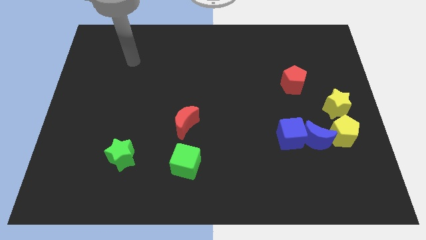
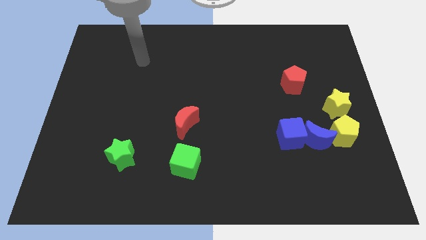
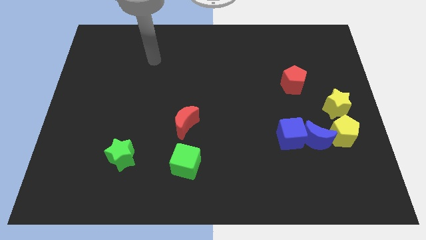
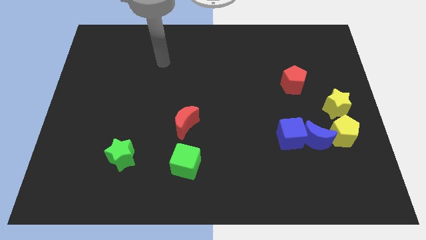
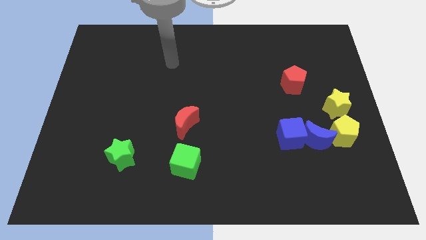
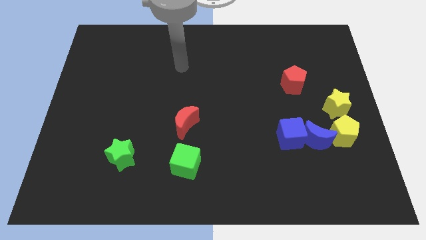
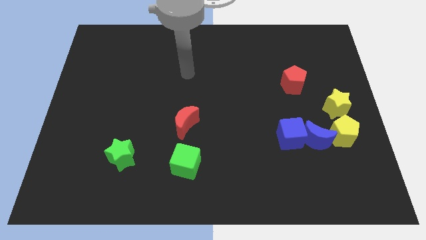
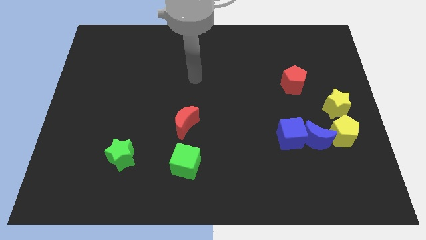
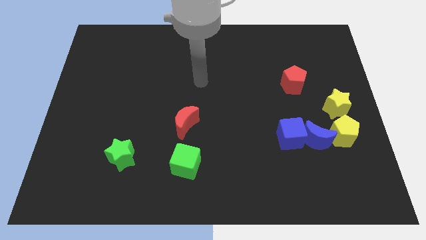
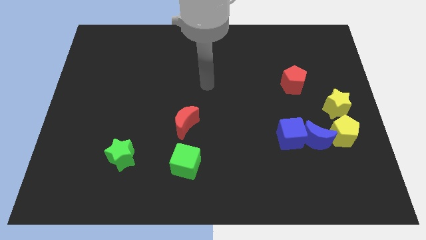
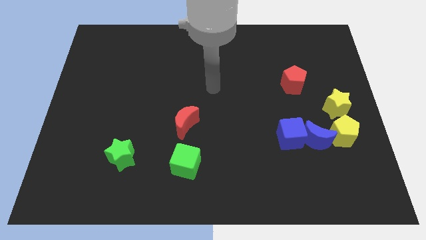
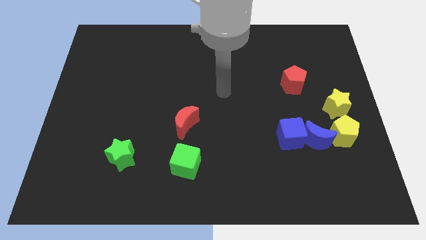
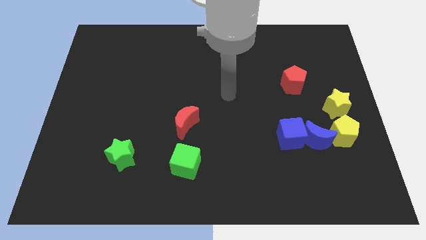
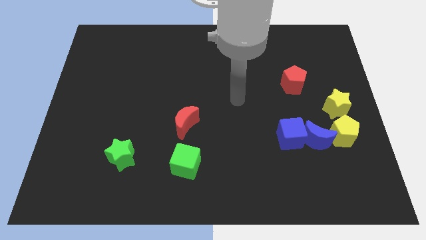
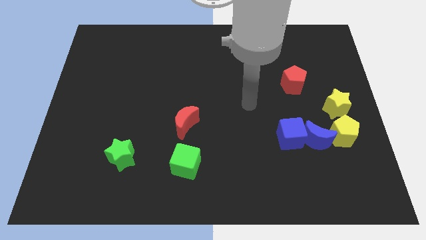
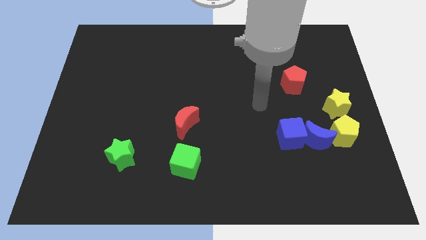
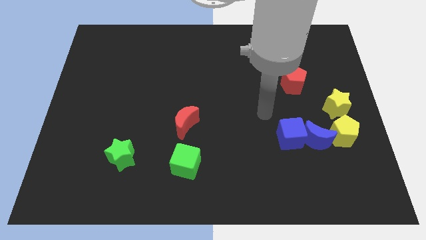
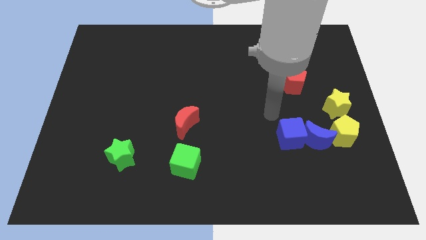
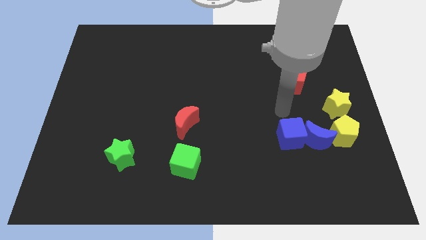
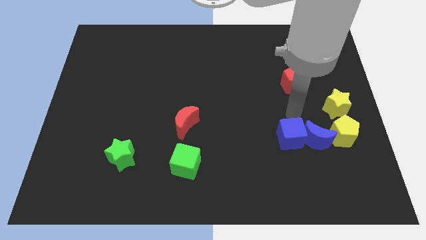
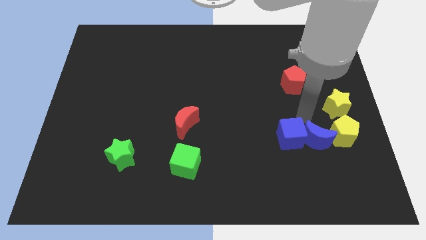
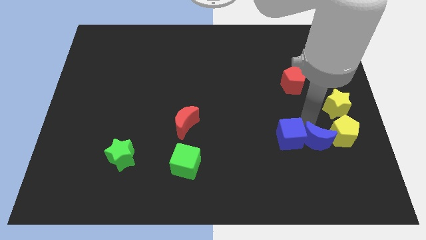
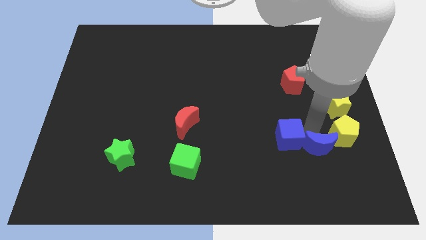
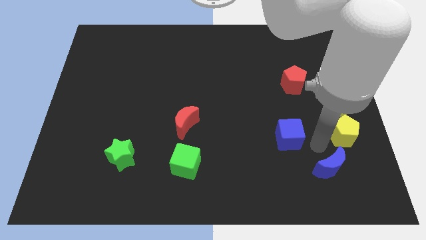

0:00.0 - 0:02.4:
move the blue cube away from the blue moon

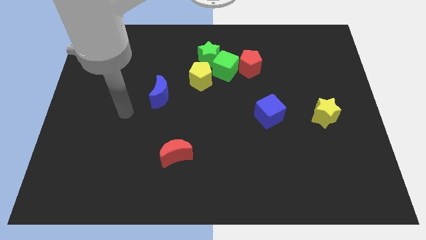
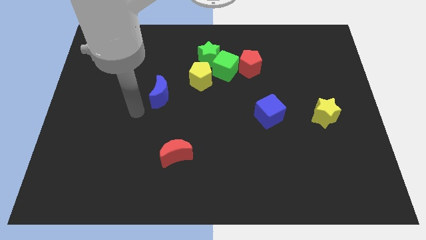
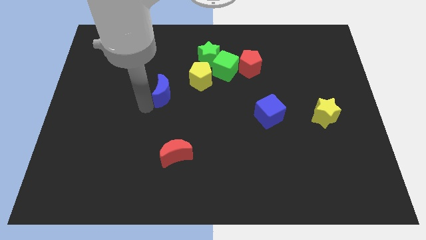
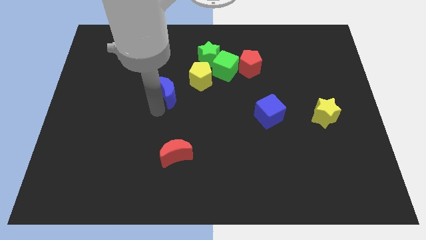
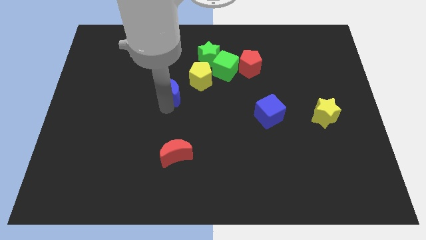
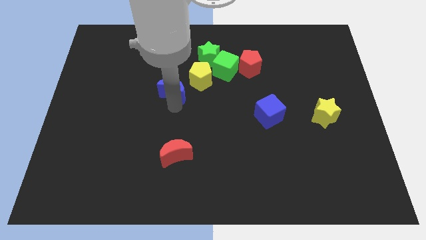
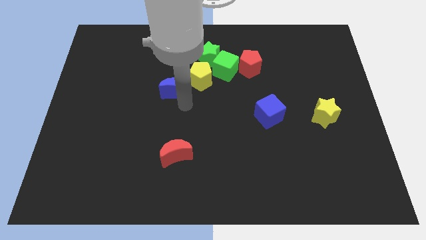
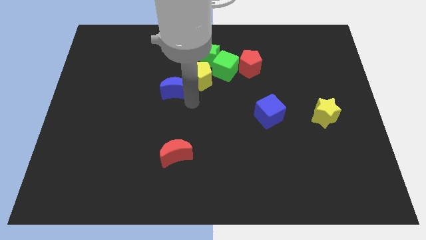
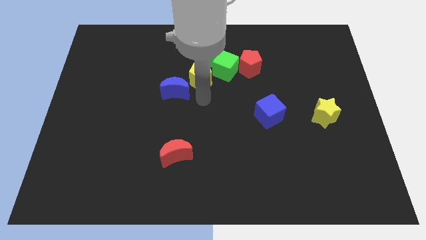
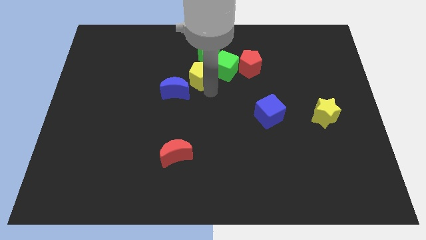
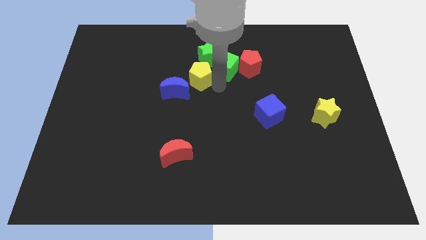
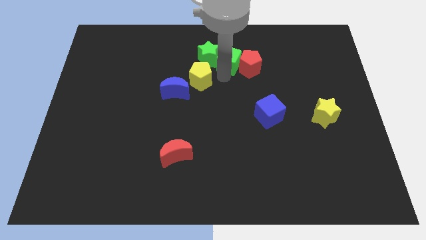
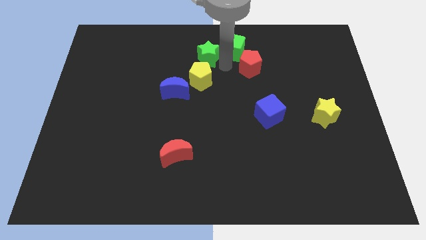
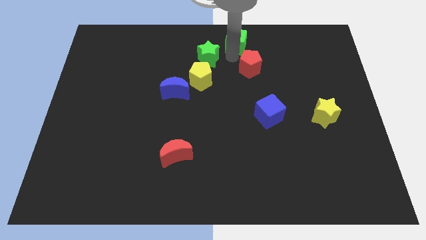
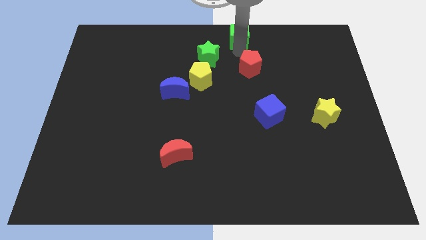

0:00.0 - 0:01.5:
separate the red pentagon from the green cube

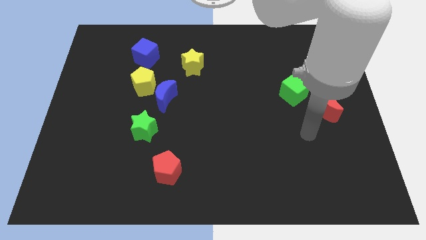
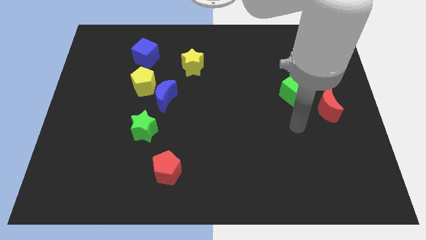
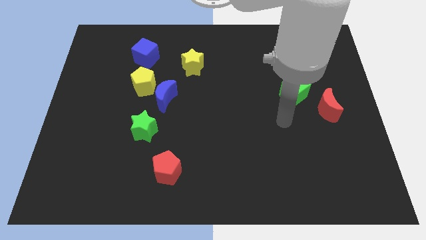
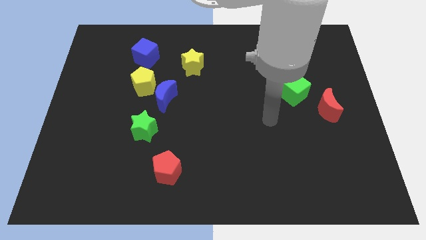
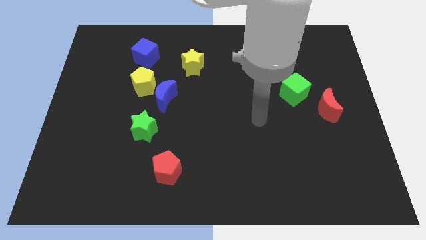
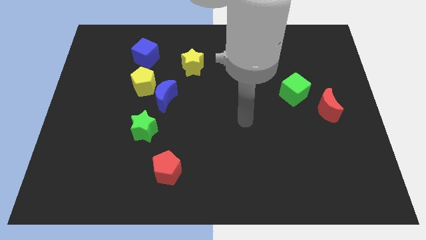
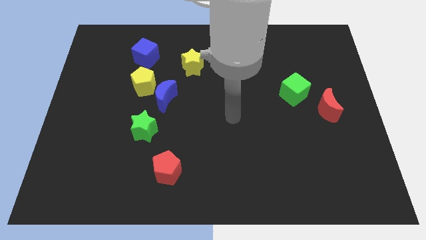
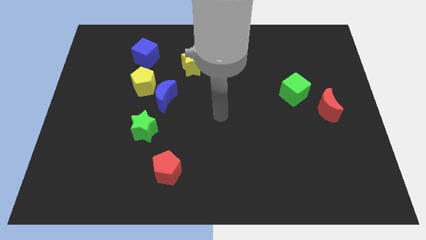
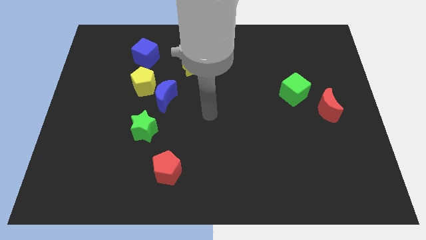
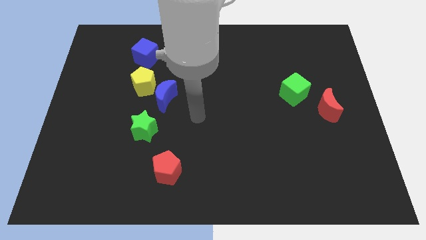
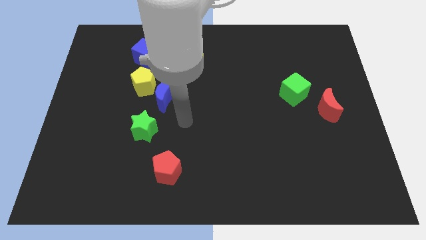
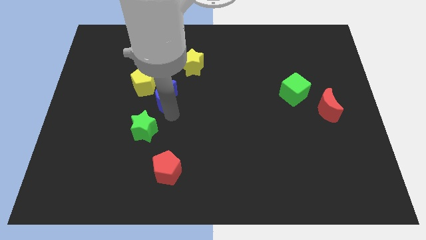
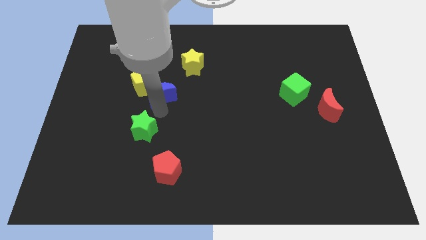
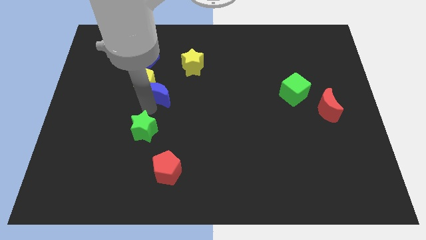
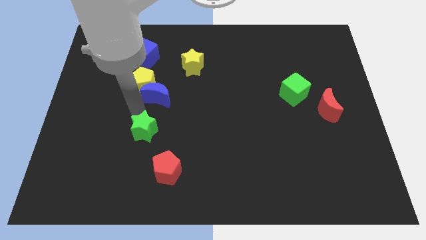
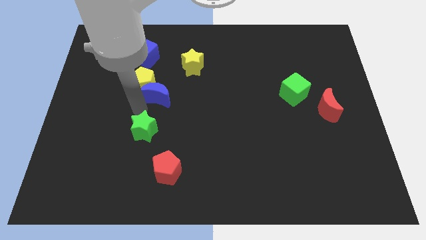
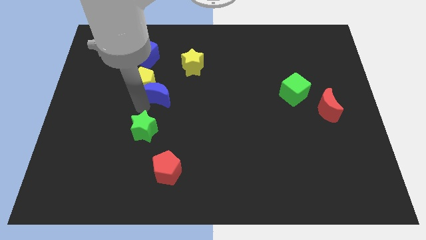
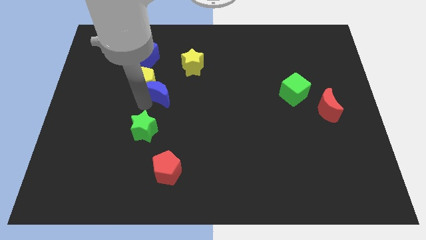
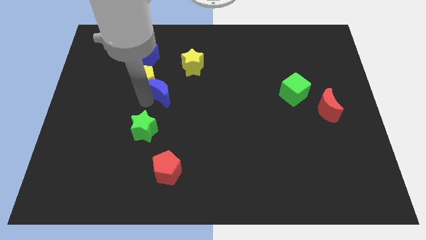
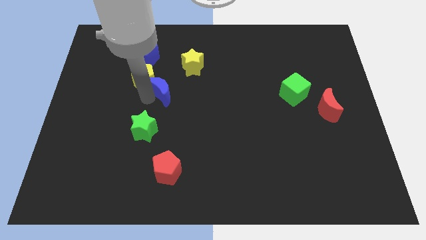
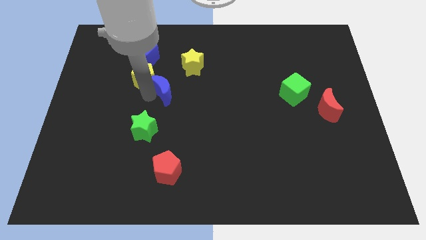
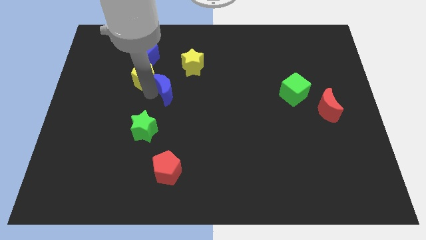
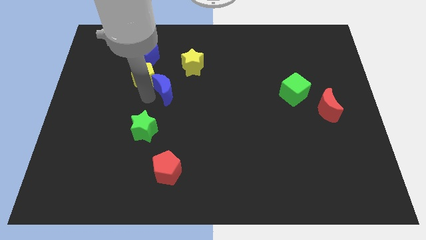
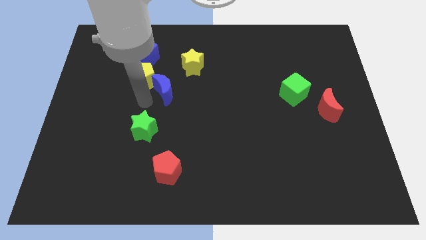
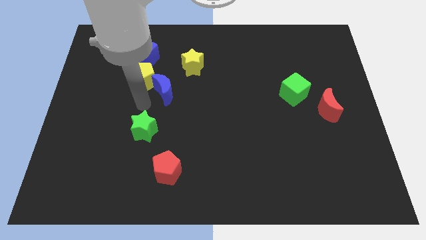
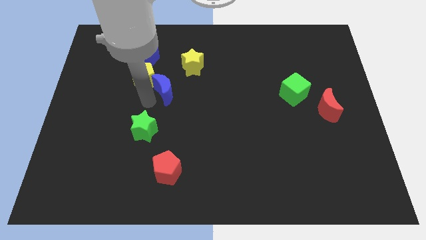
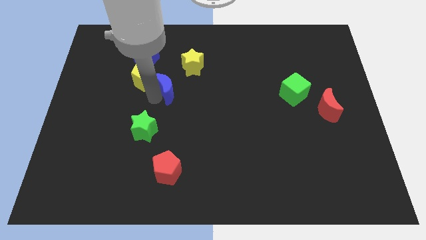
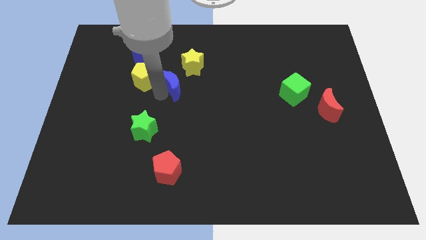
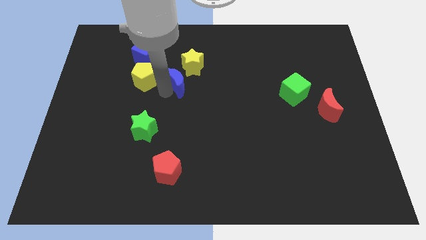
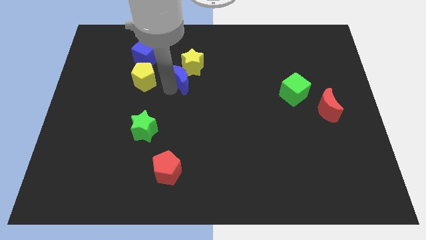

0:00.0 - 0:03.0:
move the blue moon away from the yellow pentagon and green star

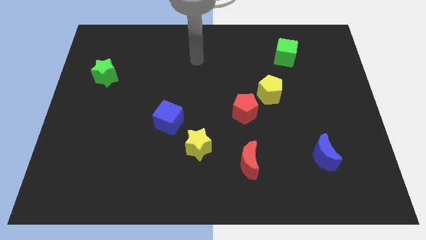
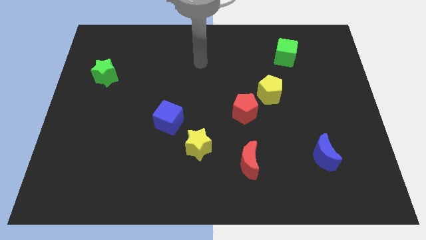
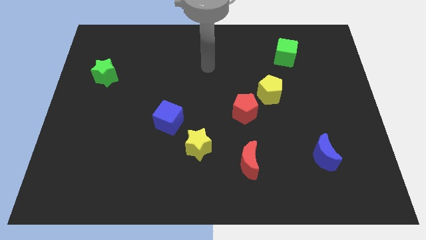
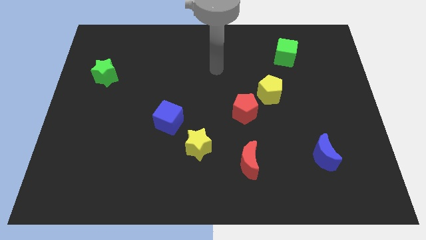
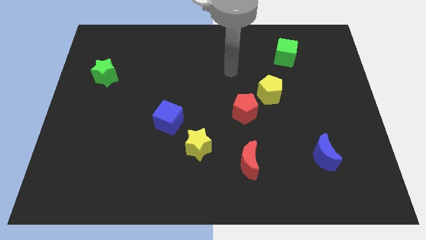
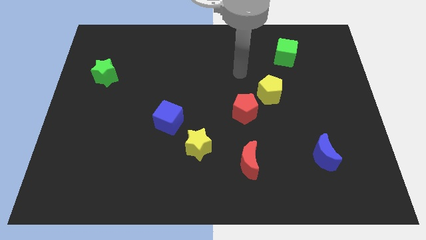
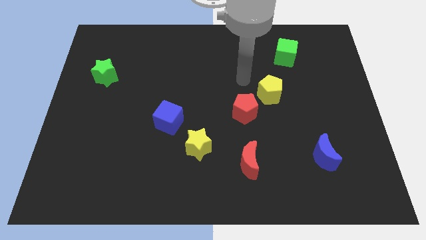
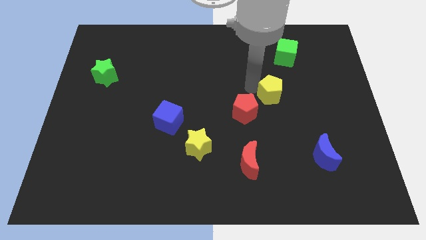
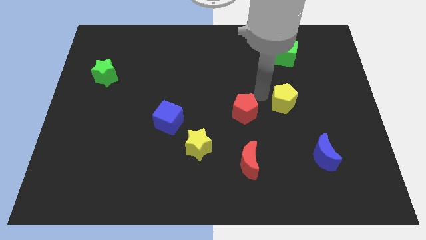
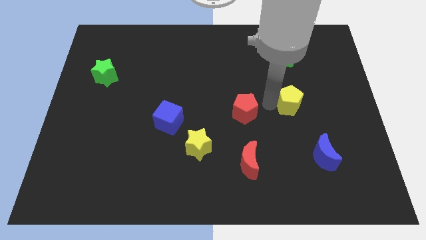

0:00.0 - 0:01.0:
separate the red pentagon from the yellow pentagon

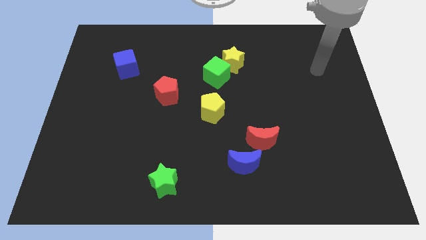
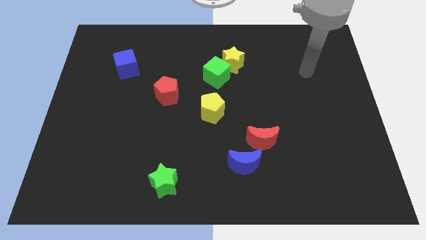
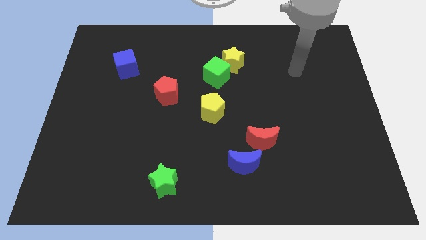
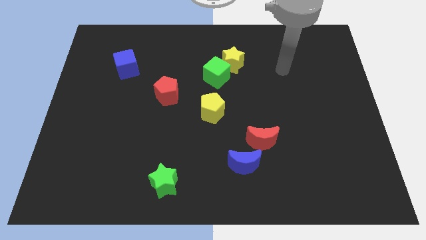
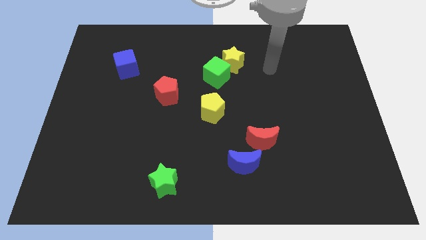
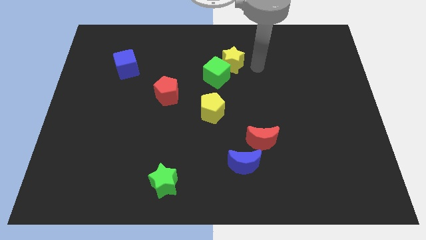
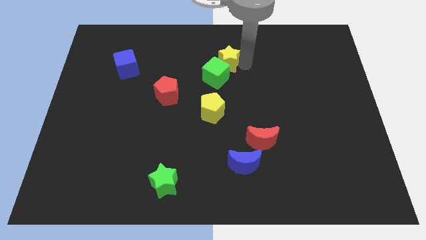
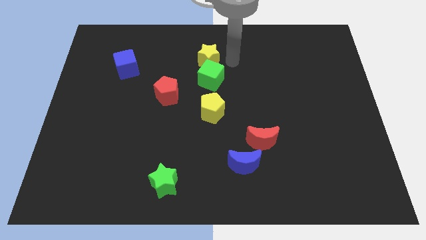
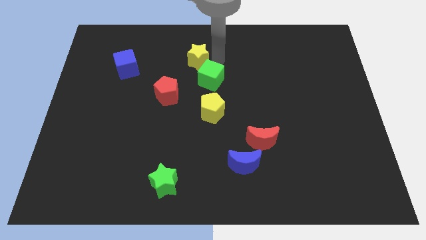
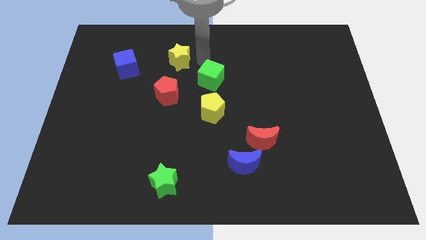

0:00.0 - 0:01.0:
separate the green cube from the yellow star

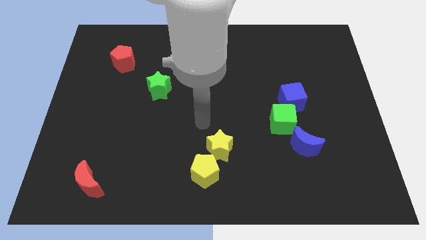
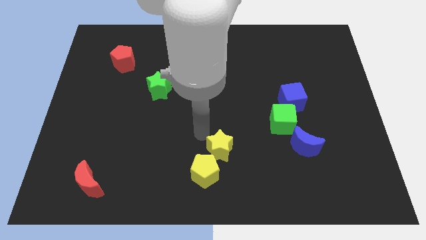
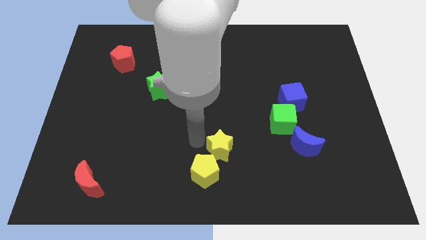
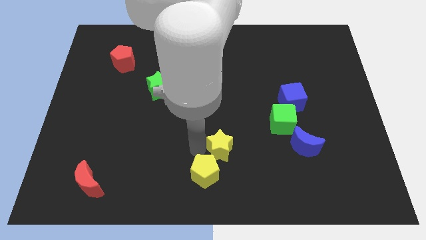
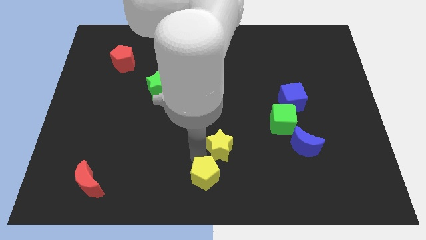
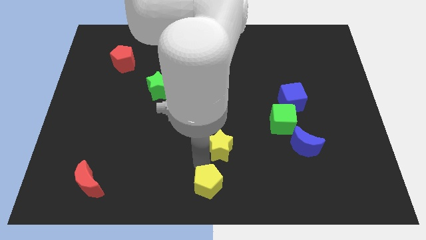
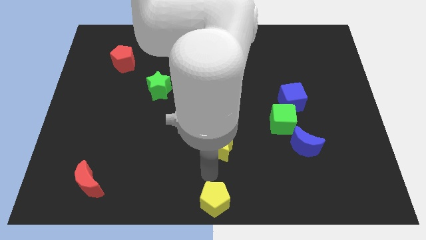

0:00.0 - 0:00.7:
pull the yellow star apart from the yellow pentagon
